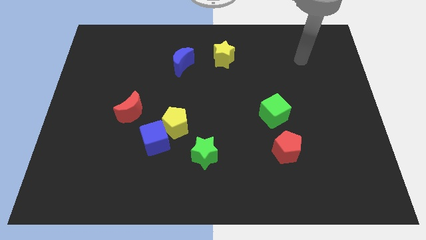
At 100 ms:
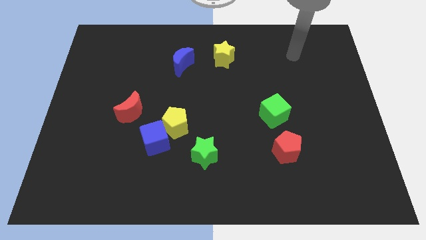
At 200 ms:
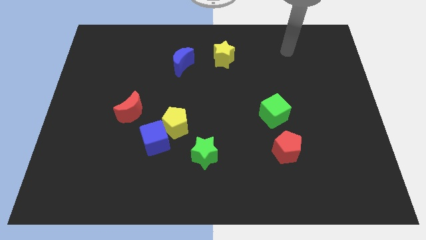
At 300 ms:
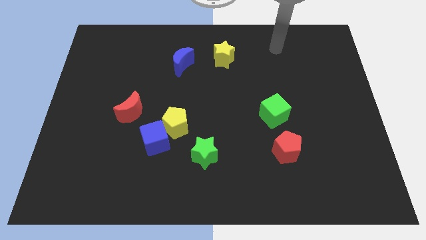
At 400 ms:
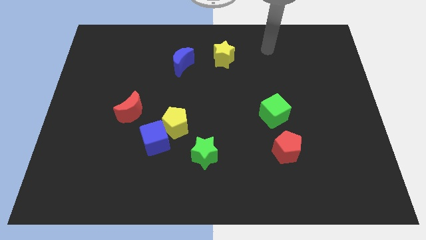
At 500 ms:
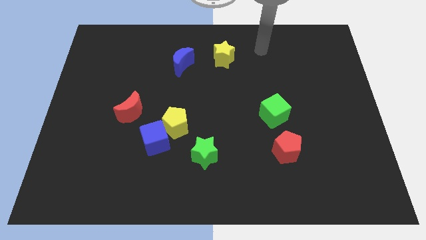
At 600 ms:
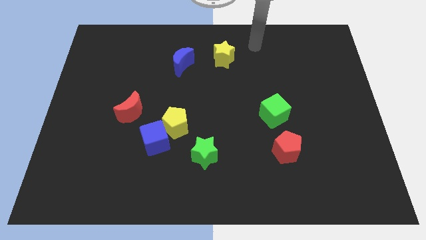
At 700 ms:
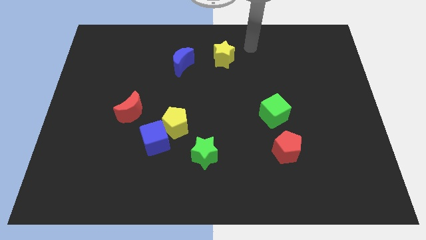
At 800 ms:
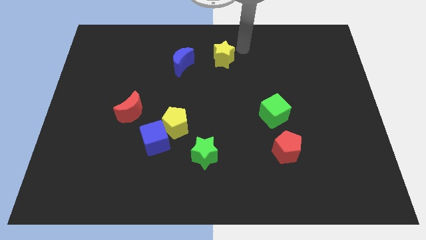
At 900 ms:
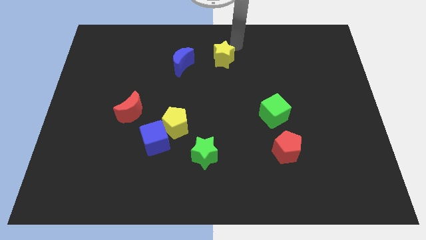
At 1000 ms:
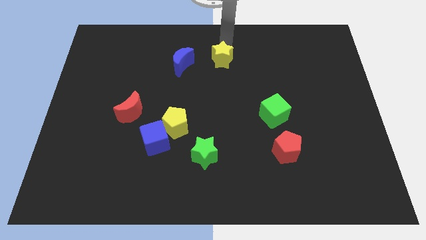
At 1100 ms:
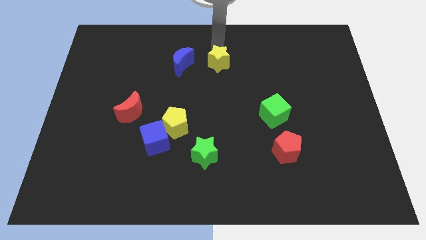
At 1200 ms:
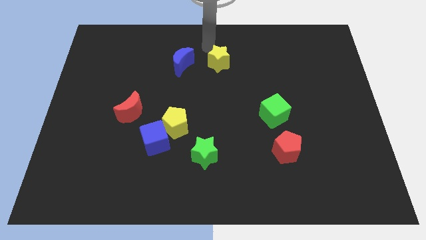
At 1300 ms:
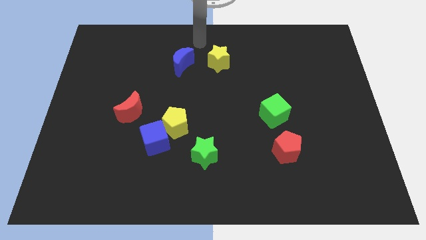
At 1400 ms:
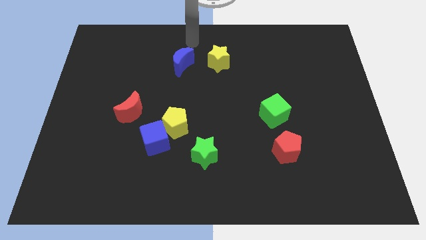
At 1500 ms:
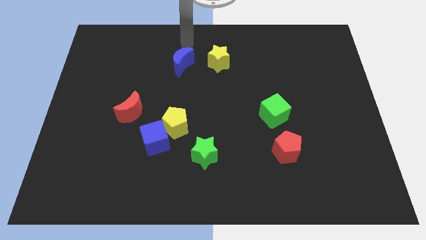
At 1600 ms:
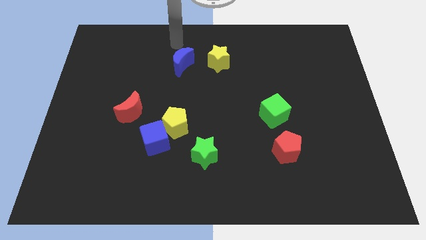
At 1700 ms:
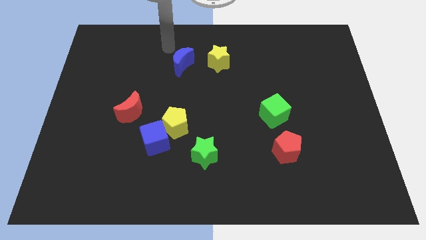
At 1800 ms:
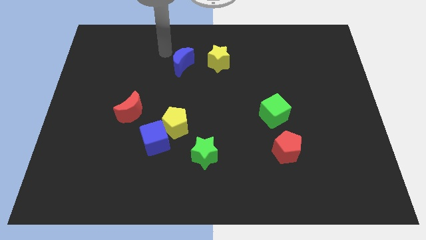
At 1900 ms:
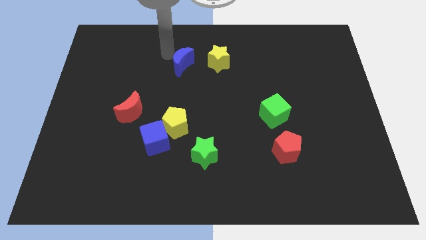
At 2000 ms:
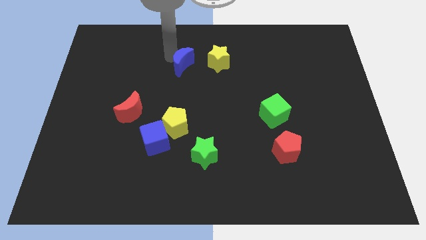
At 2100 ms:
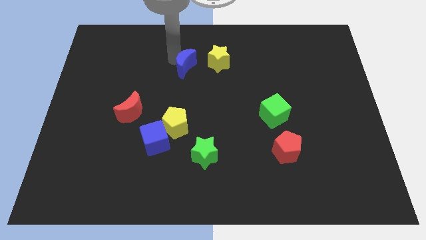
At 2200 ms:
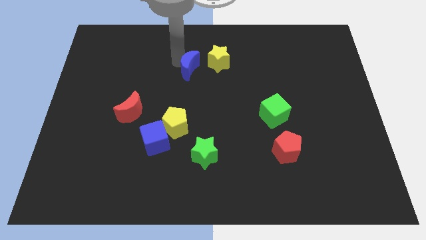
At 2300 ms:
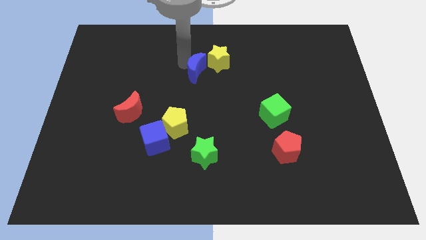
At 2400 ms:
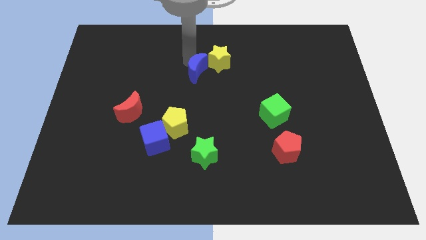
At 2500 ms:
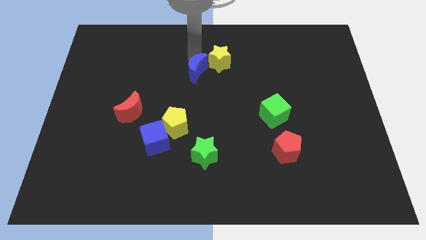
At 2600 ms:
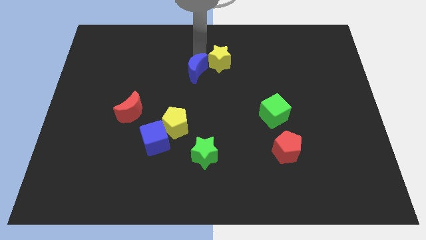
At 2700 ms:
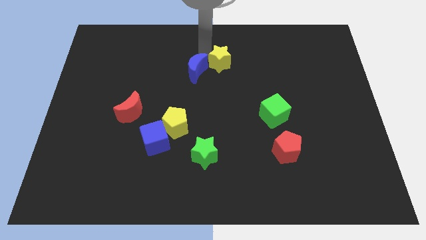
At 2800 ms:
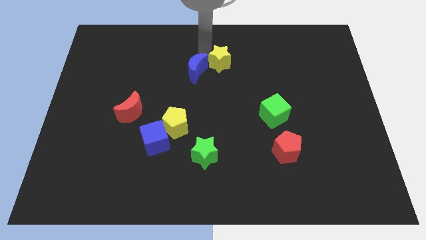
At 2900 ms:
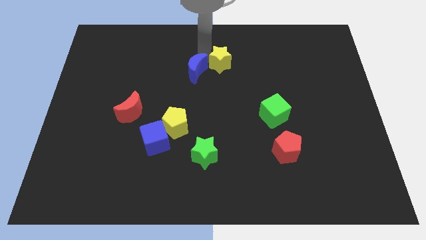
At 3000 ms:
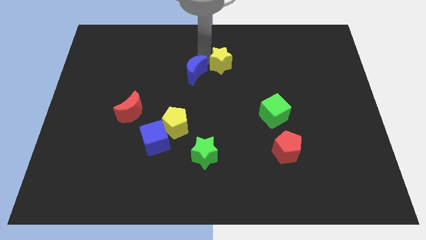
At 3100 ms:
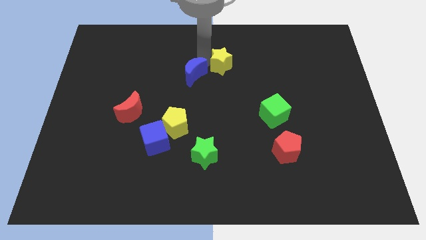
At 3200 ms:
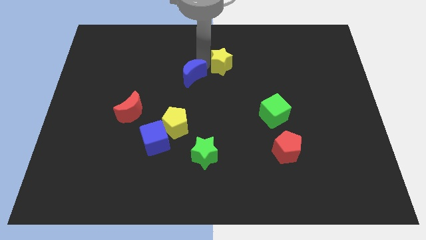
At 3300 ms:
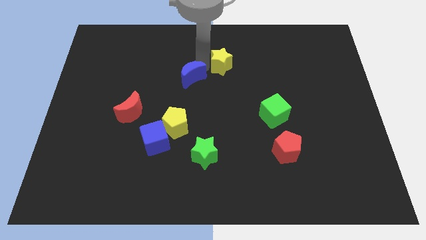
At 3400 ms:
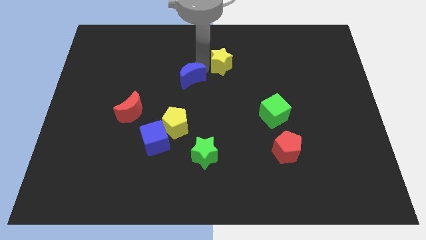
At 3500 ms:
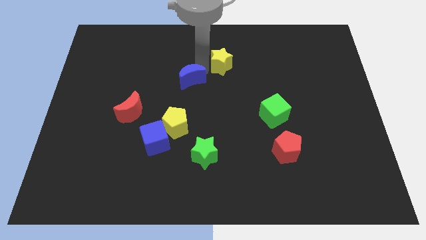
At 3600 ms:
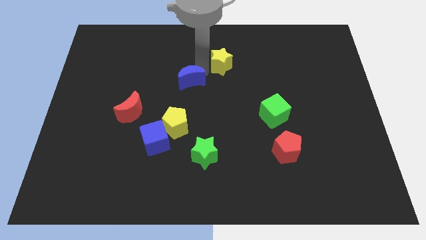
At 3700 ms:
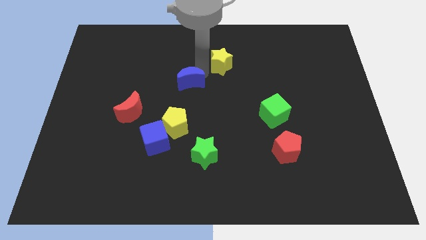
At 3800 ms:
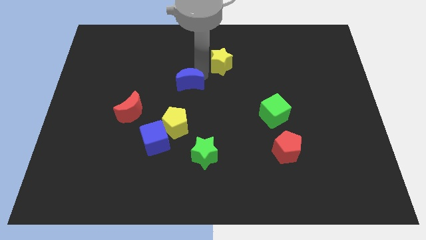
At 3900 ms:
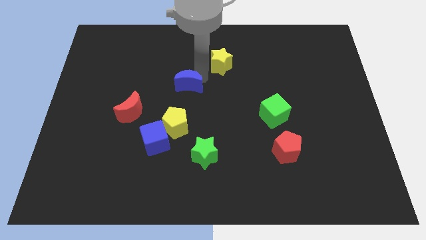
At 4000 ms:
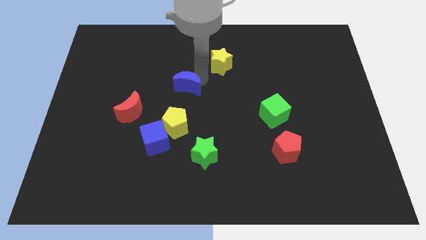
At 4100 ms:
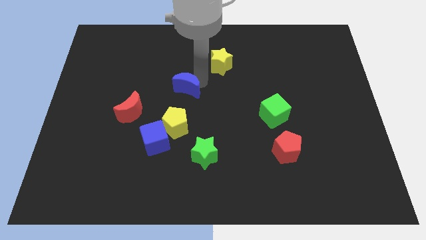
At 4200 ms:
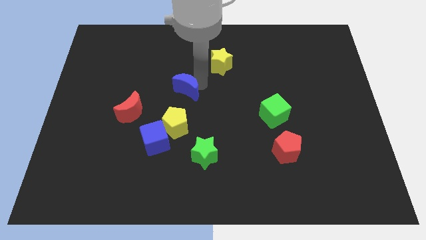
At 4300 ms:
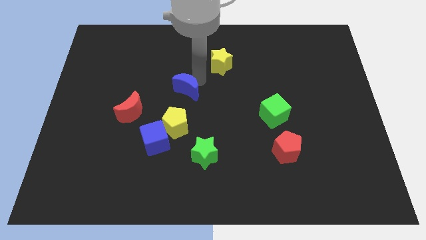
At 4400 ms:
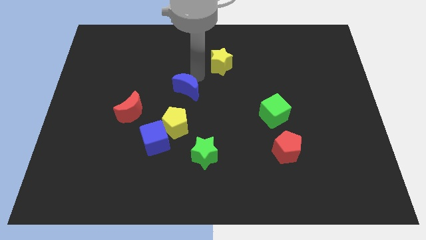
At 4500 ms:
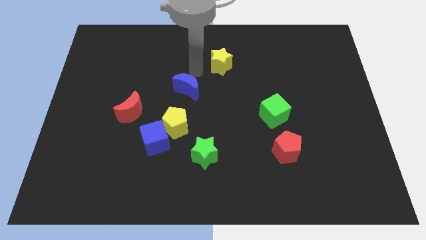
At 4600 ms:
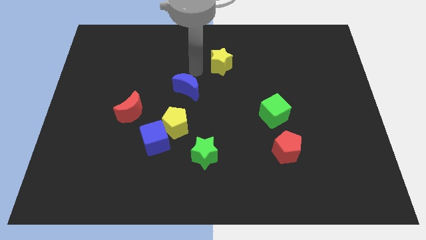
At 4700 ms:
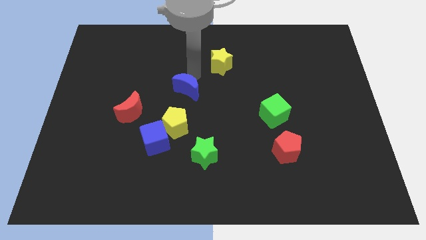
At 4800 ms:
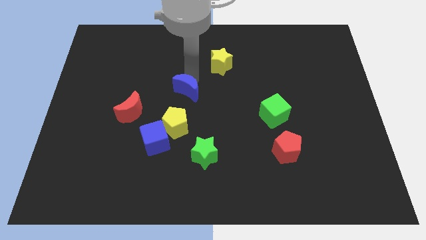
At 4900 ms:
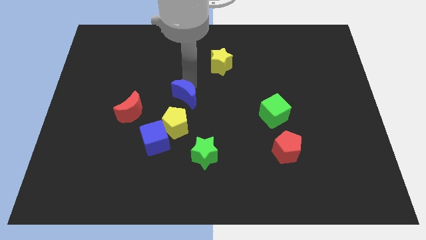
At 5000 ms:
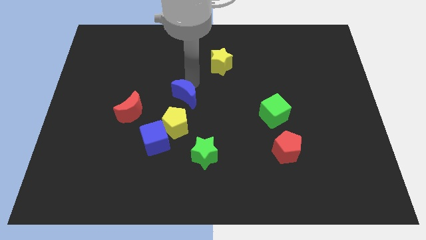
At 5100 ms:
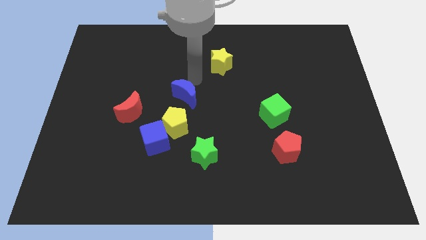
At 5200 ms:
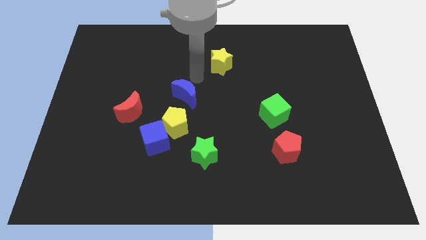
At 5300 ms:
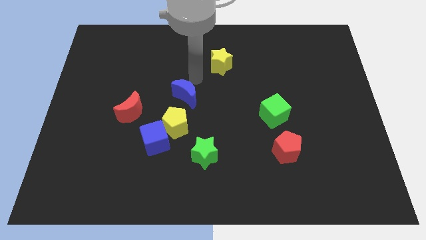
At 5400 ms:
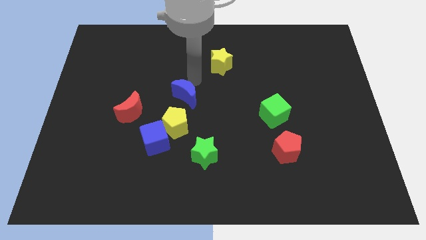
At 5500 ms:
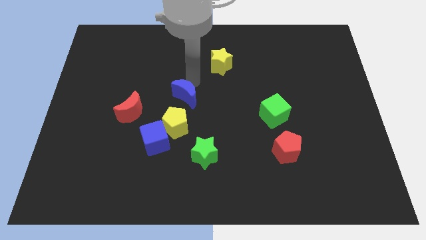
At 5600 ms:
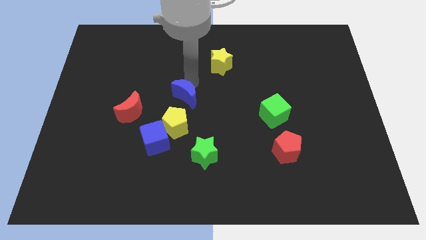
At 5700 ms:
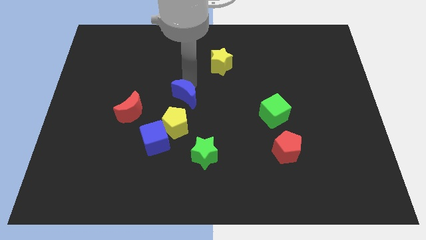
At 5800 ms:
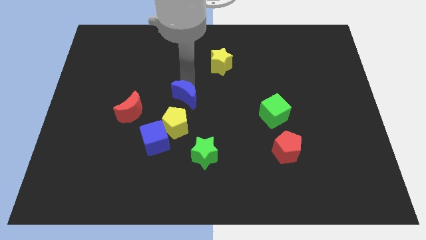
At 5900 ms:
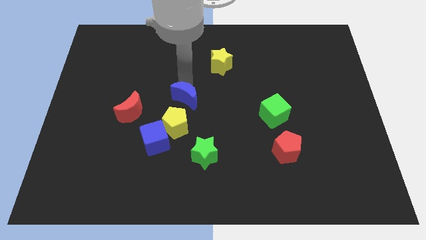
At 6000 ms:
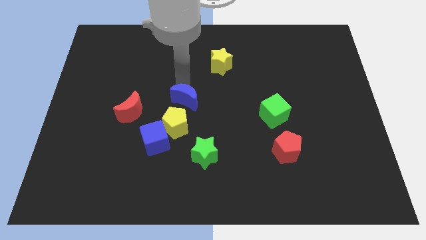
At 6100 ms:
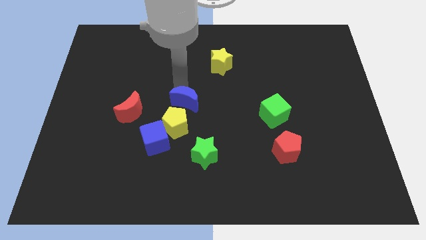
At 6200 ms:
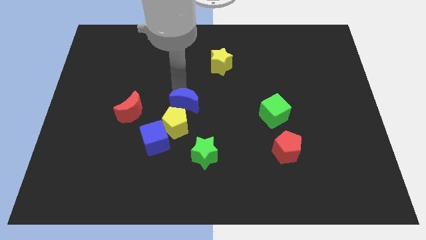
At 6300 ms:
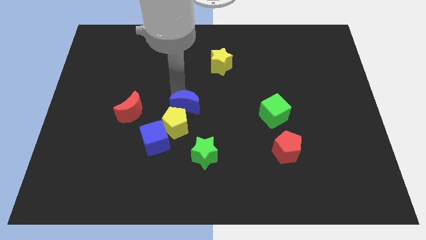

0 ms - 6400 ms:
push the blue moon towards the yellow pentagon
